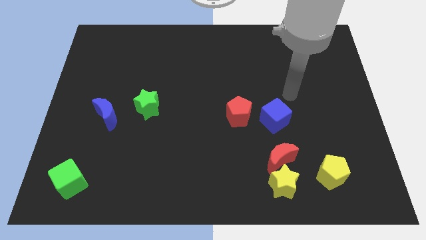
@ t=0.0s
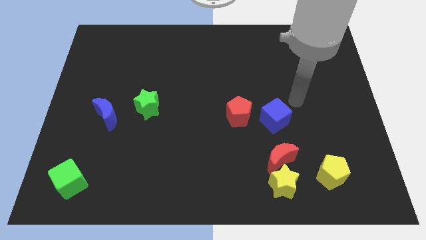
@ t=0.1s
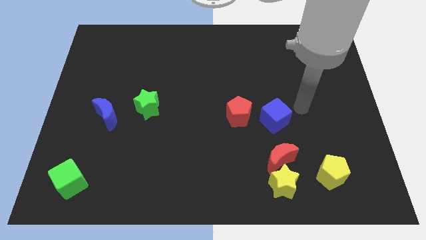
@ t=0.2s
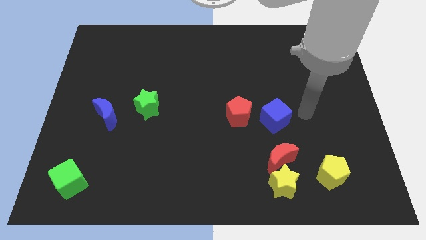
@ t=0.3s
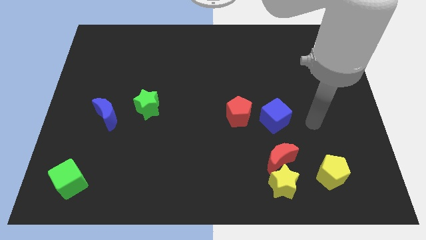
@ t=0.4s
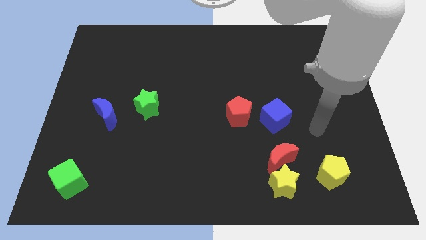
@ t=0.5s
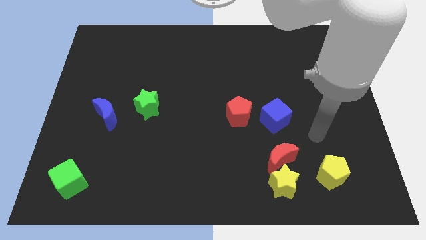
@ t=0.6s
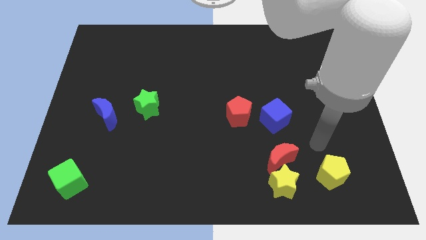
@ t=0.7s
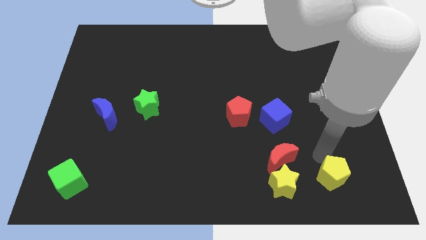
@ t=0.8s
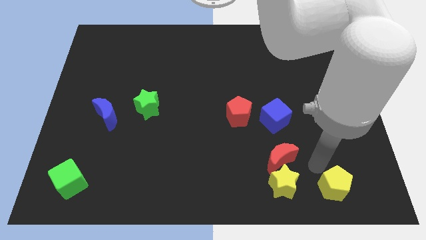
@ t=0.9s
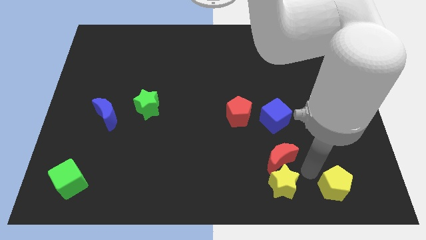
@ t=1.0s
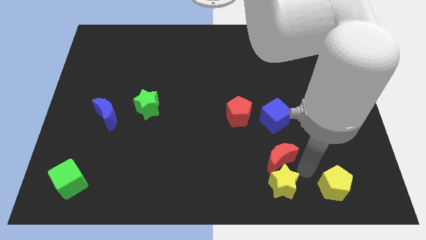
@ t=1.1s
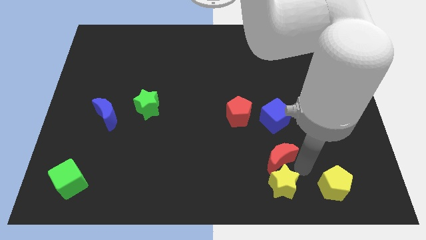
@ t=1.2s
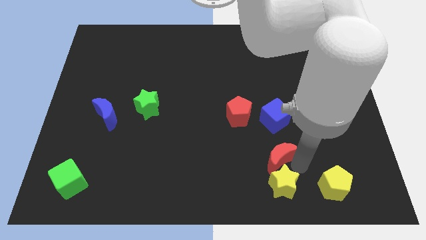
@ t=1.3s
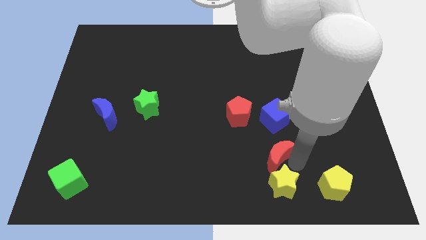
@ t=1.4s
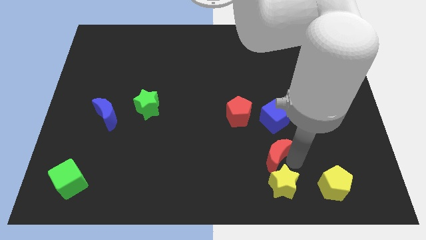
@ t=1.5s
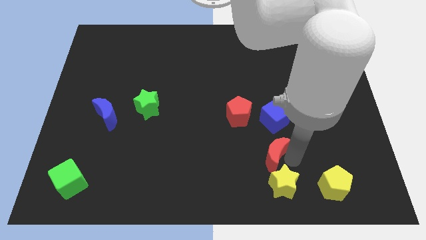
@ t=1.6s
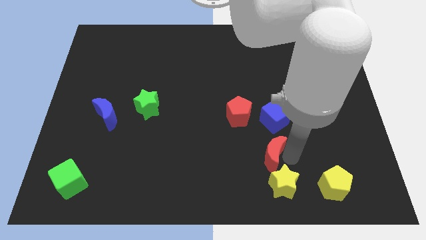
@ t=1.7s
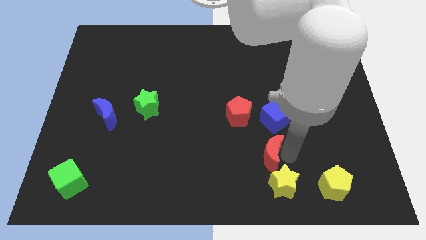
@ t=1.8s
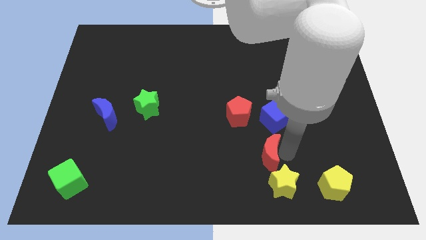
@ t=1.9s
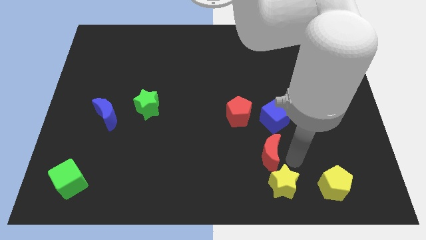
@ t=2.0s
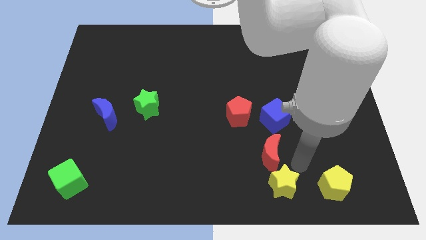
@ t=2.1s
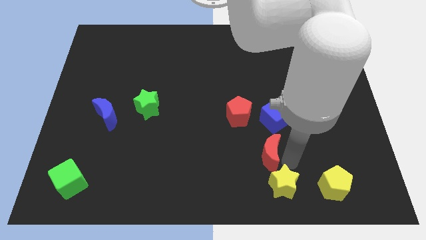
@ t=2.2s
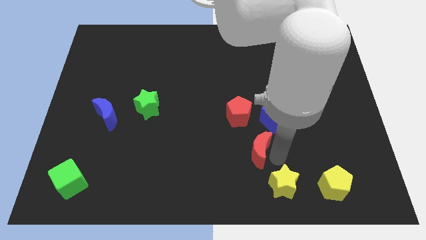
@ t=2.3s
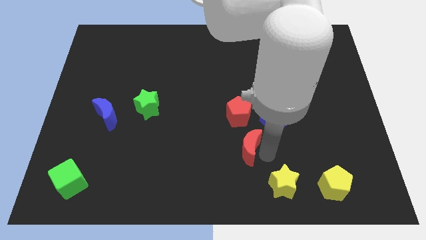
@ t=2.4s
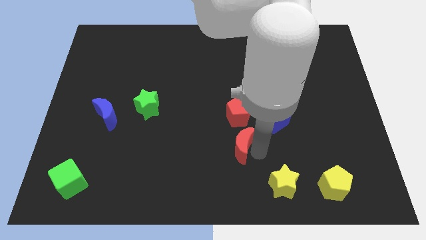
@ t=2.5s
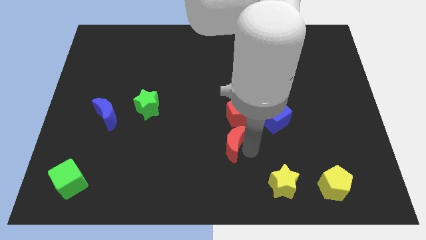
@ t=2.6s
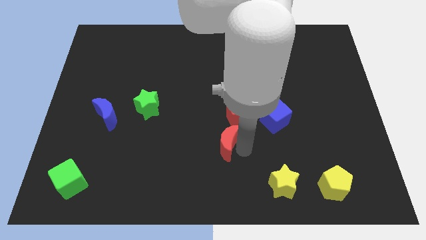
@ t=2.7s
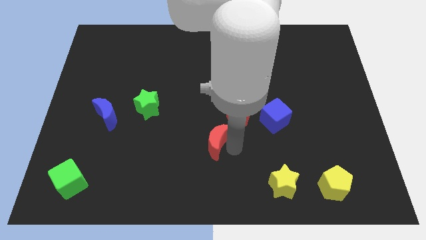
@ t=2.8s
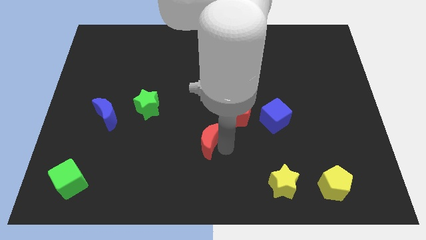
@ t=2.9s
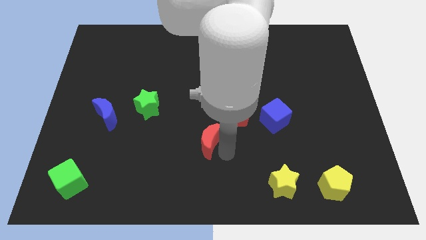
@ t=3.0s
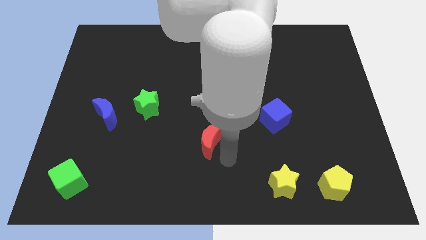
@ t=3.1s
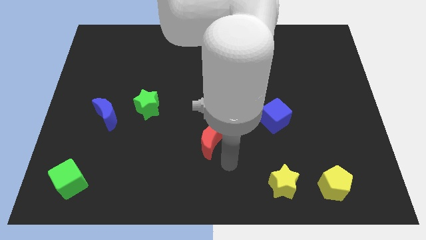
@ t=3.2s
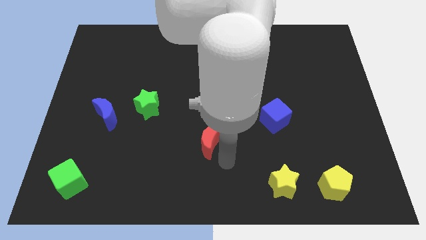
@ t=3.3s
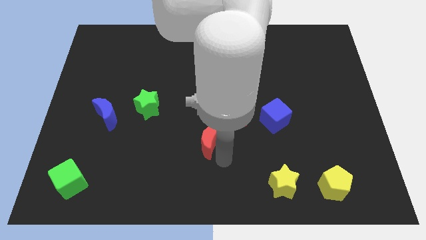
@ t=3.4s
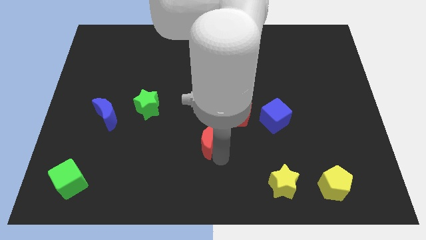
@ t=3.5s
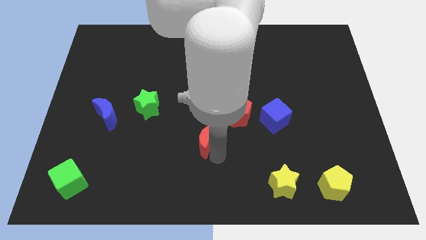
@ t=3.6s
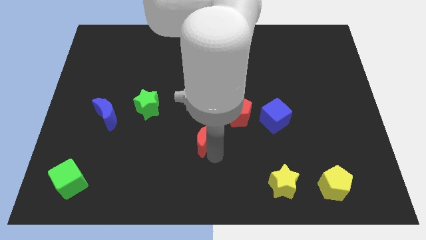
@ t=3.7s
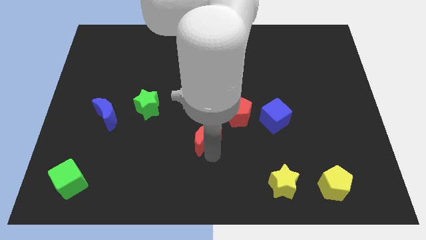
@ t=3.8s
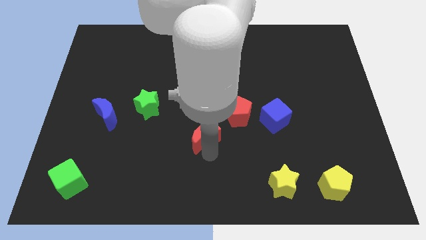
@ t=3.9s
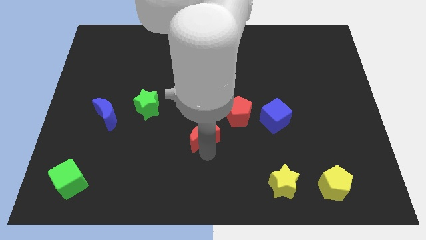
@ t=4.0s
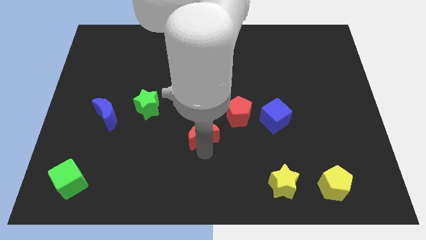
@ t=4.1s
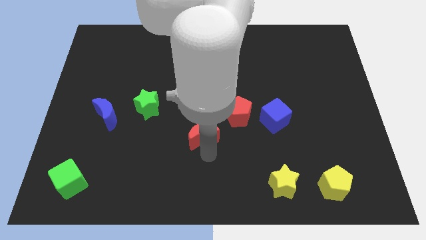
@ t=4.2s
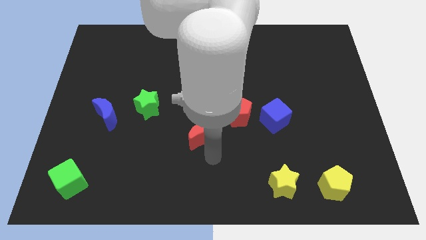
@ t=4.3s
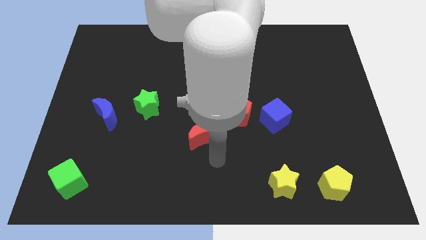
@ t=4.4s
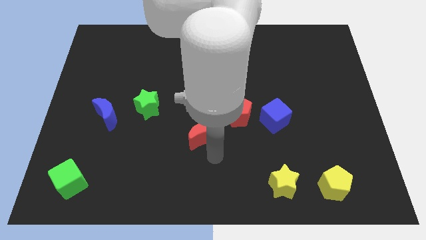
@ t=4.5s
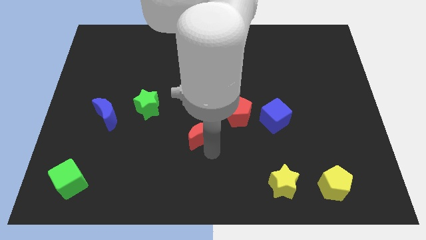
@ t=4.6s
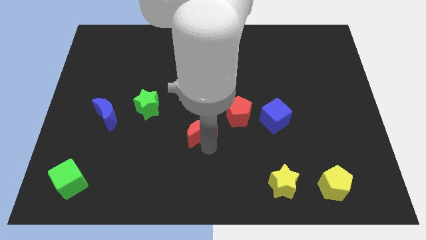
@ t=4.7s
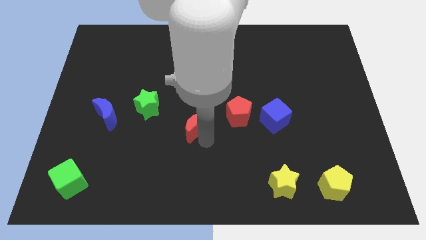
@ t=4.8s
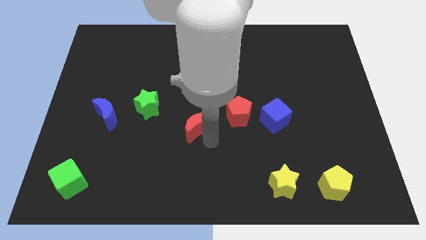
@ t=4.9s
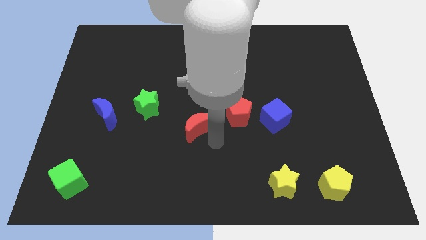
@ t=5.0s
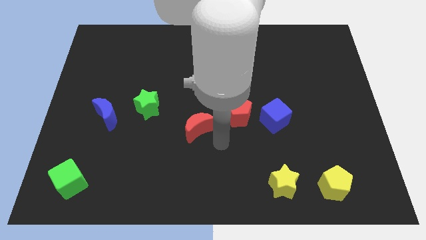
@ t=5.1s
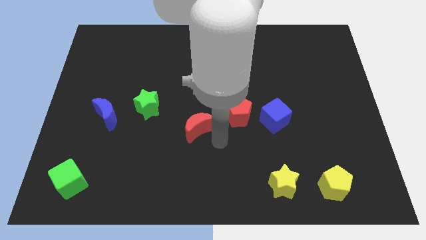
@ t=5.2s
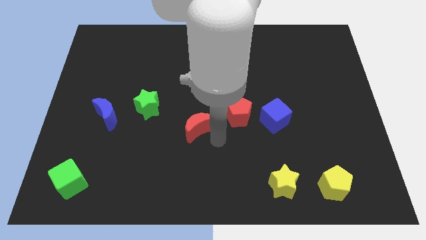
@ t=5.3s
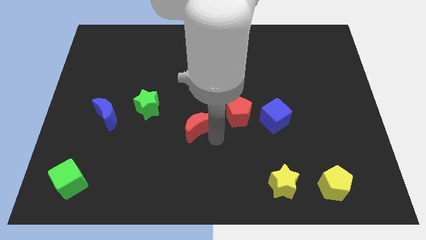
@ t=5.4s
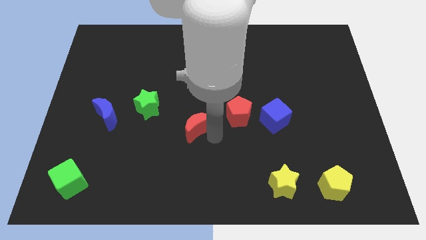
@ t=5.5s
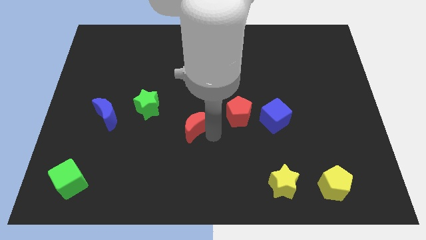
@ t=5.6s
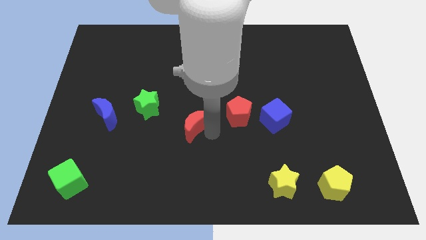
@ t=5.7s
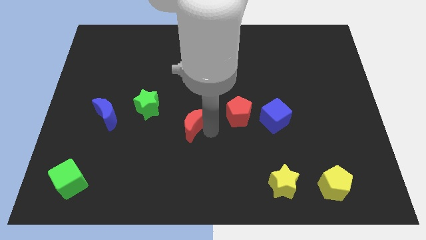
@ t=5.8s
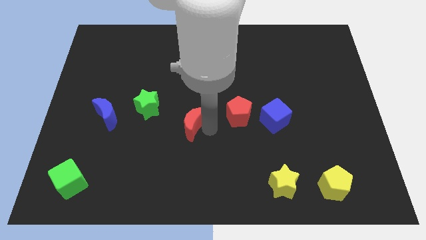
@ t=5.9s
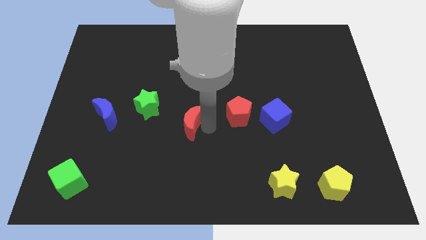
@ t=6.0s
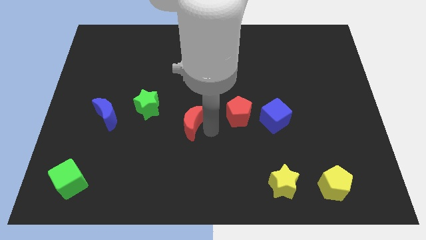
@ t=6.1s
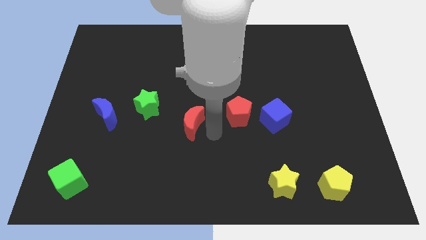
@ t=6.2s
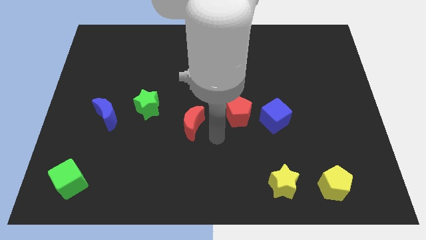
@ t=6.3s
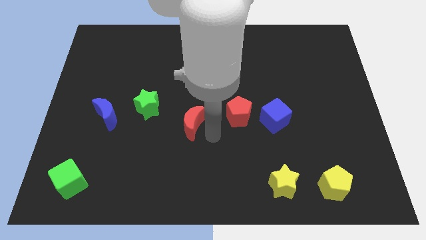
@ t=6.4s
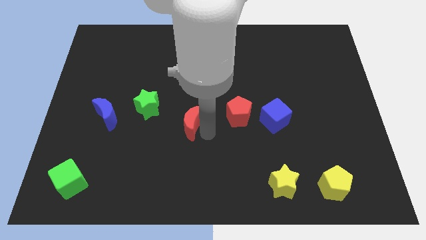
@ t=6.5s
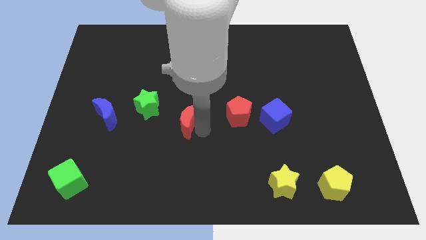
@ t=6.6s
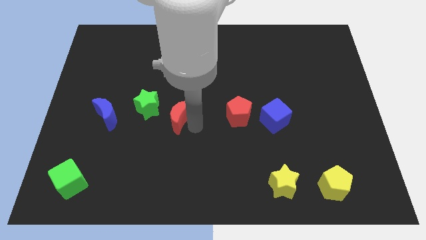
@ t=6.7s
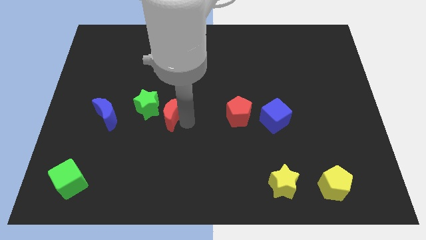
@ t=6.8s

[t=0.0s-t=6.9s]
put the red moon close to the green star
